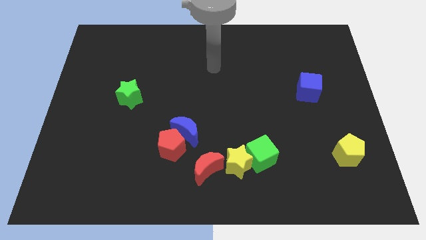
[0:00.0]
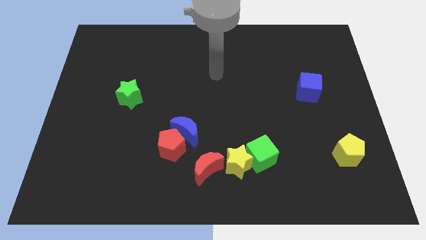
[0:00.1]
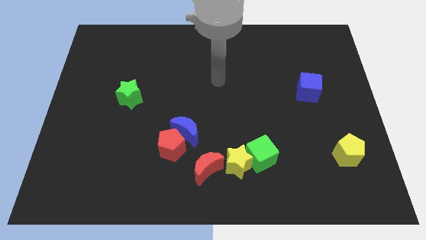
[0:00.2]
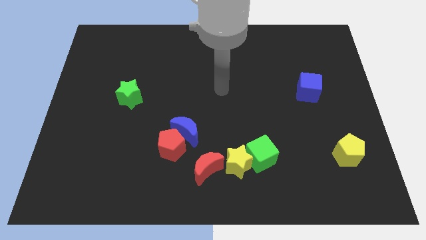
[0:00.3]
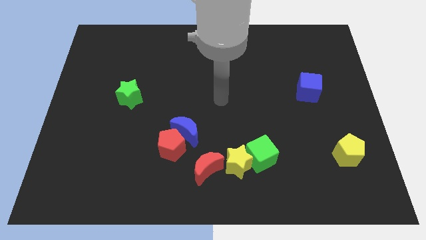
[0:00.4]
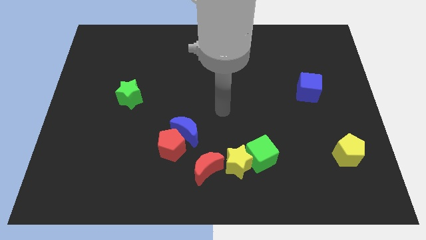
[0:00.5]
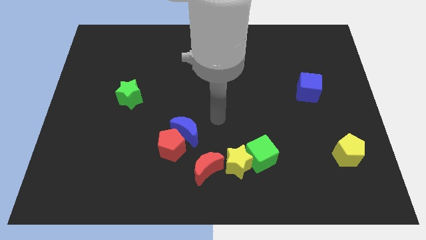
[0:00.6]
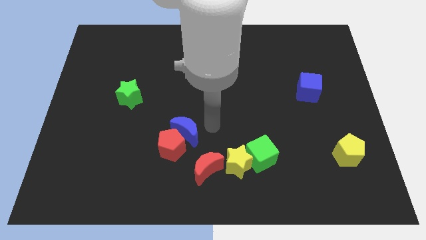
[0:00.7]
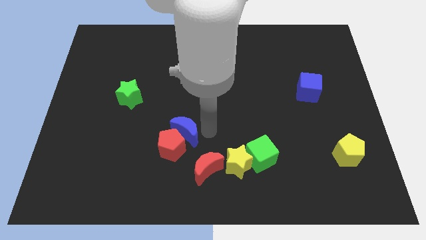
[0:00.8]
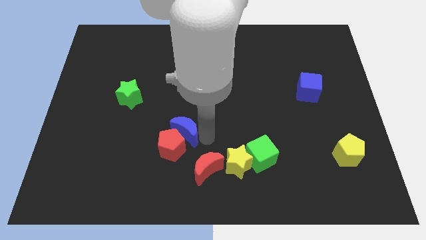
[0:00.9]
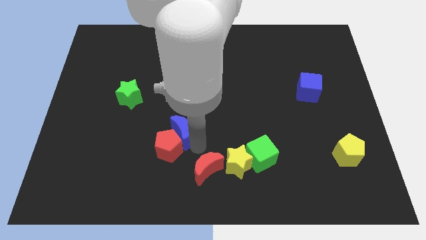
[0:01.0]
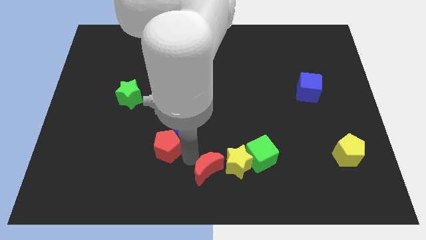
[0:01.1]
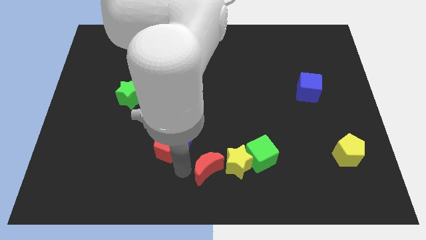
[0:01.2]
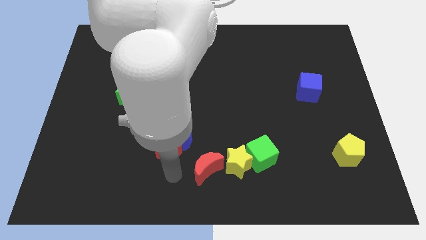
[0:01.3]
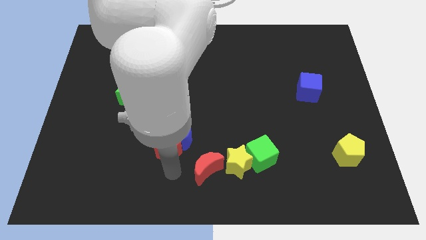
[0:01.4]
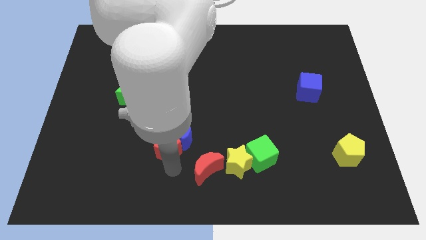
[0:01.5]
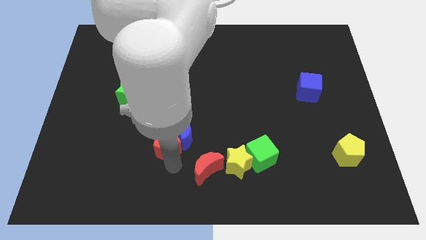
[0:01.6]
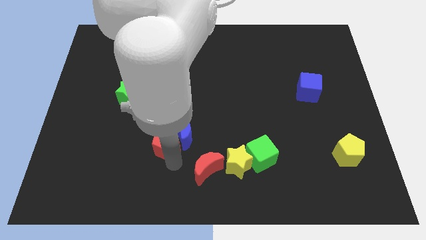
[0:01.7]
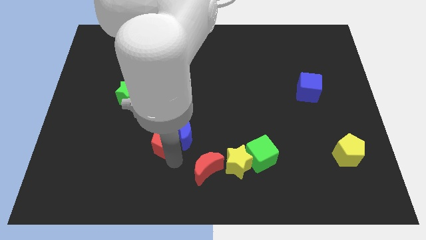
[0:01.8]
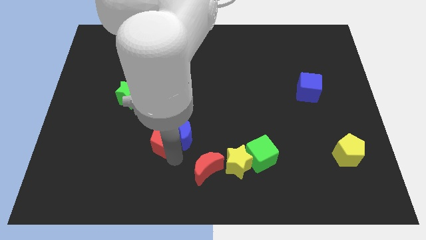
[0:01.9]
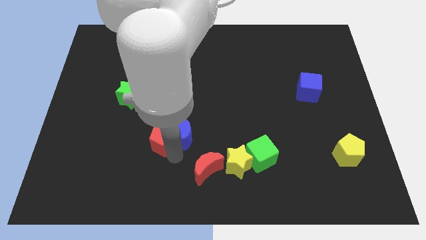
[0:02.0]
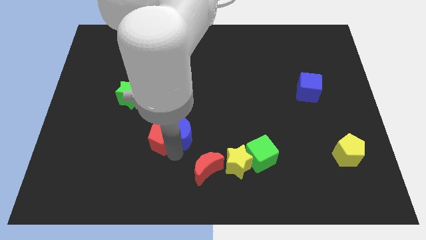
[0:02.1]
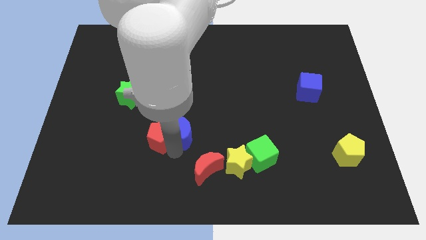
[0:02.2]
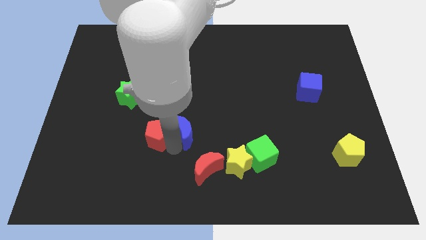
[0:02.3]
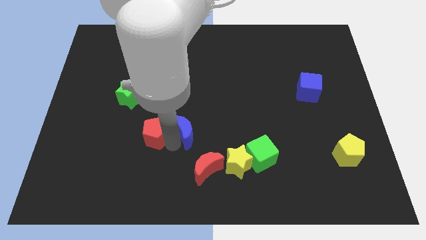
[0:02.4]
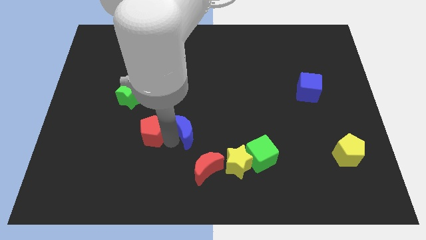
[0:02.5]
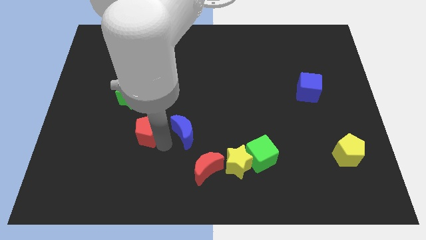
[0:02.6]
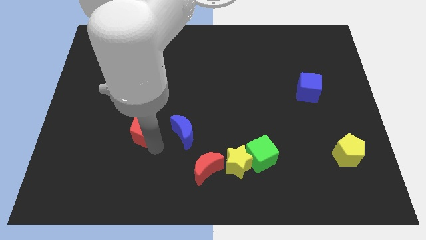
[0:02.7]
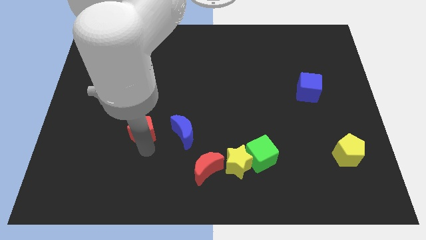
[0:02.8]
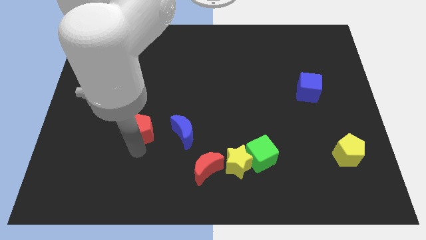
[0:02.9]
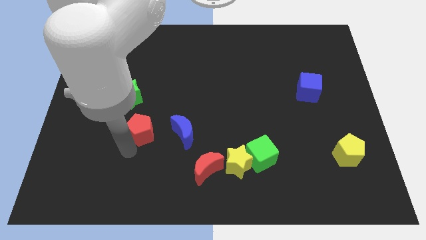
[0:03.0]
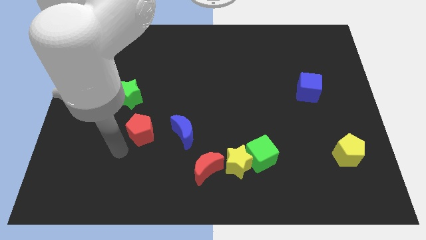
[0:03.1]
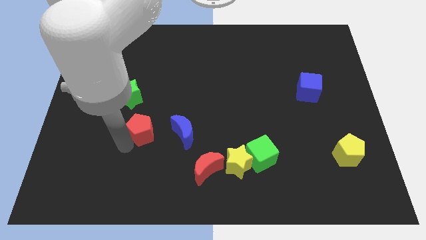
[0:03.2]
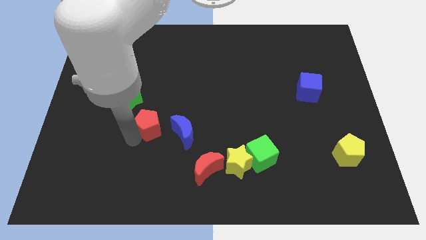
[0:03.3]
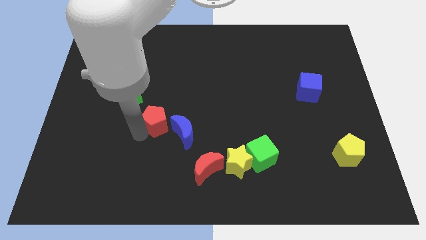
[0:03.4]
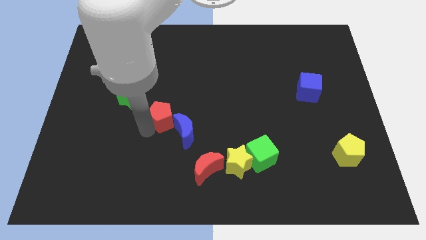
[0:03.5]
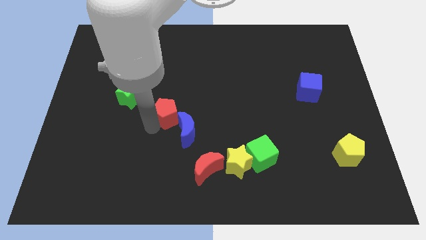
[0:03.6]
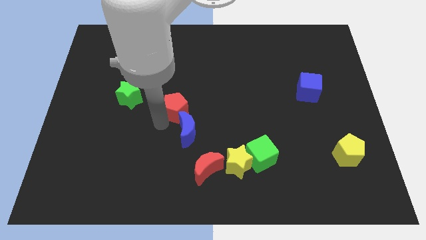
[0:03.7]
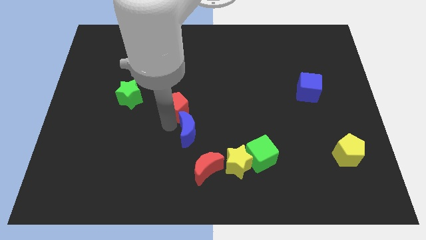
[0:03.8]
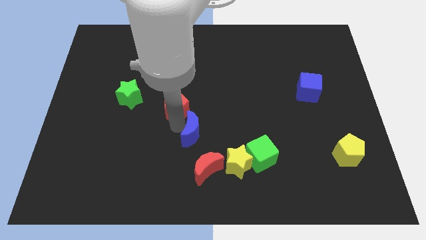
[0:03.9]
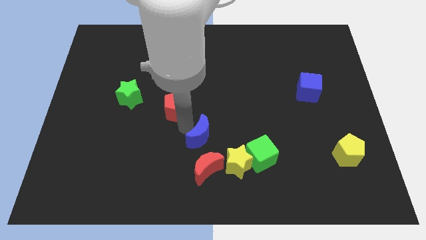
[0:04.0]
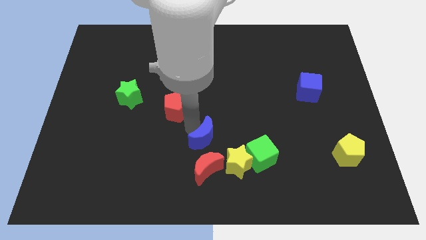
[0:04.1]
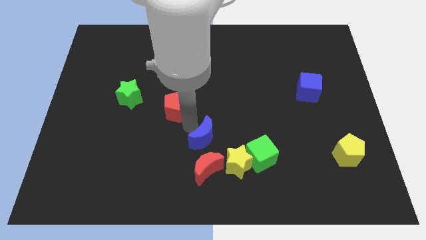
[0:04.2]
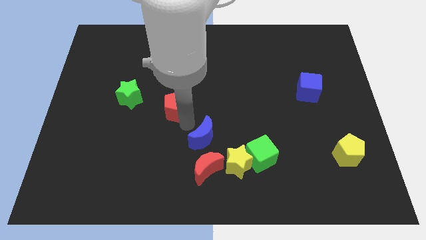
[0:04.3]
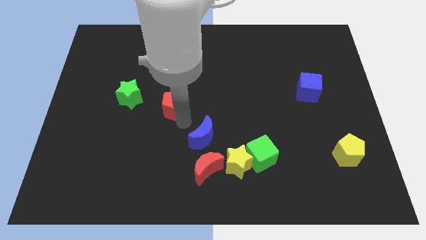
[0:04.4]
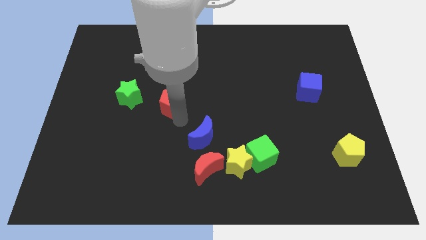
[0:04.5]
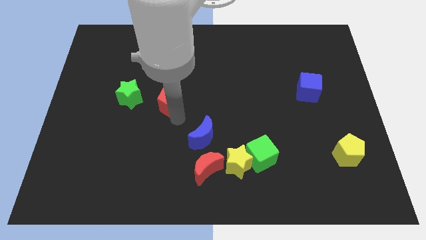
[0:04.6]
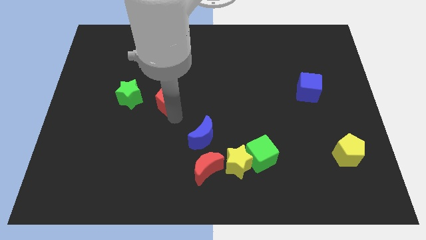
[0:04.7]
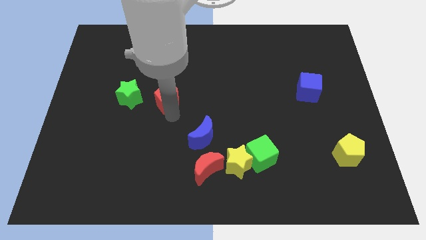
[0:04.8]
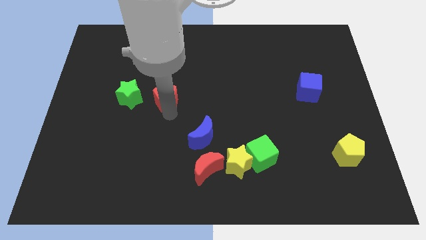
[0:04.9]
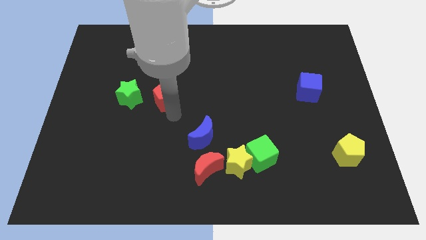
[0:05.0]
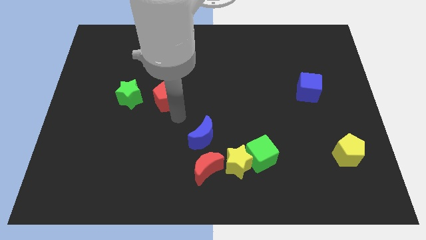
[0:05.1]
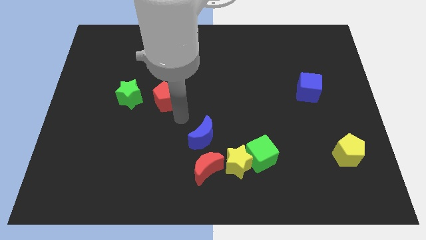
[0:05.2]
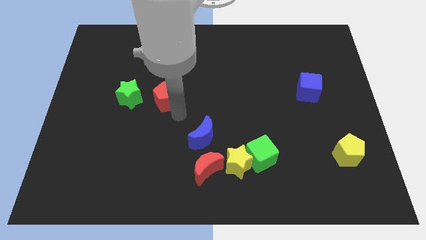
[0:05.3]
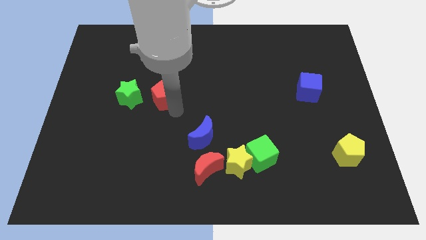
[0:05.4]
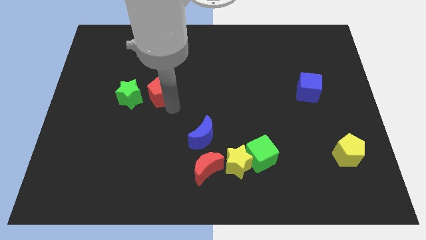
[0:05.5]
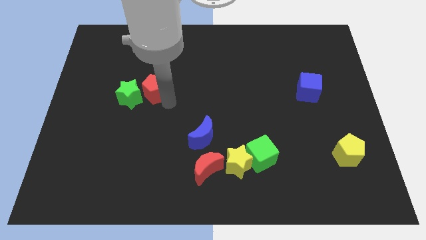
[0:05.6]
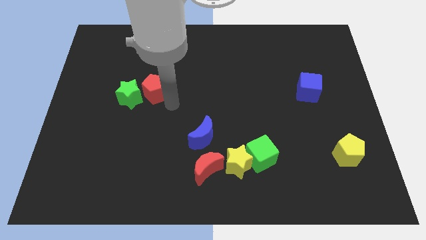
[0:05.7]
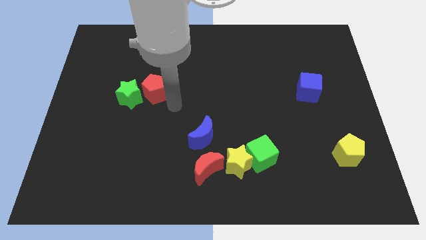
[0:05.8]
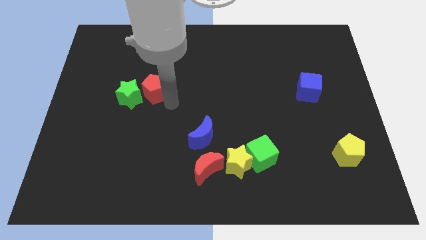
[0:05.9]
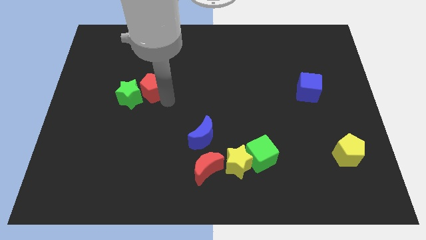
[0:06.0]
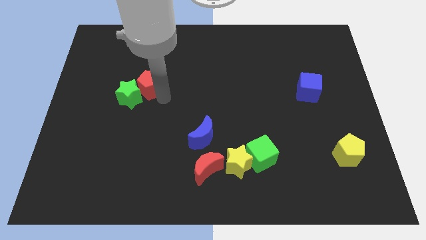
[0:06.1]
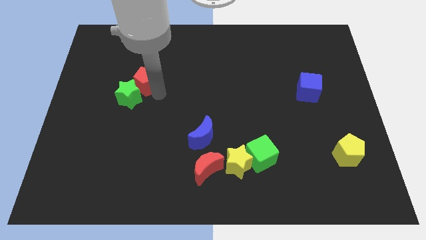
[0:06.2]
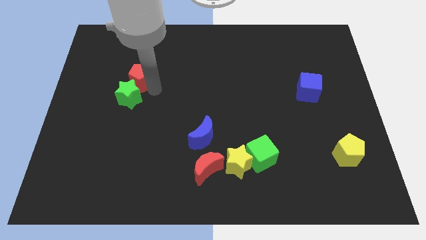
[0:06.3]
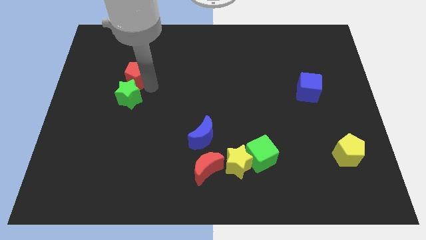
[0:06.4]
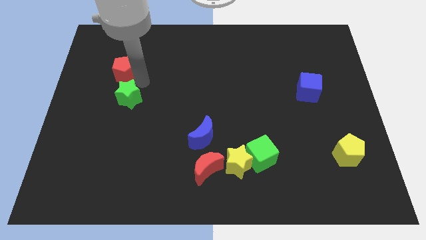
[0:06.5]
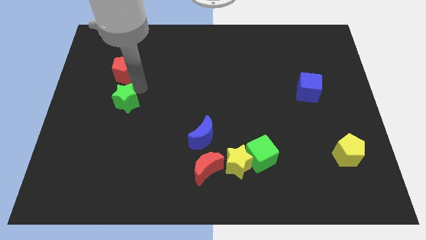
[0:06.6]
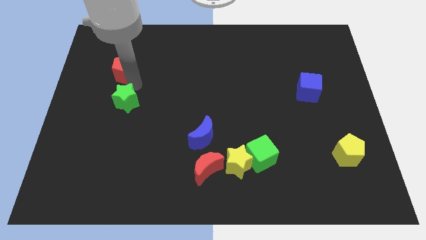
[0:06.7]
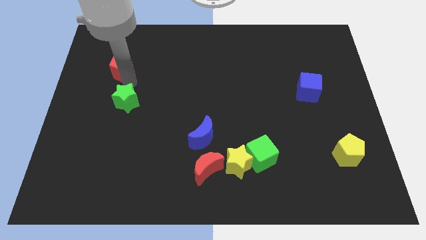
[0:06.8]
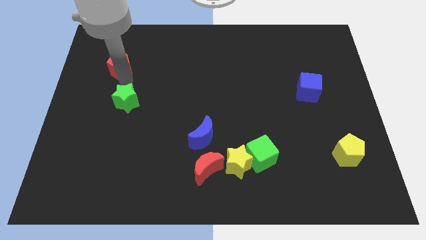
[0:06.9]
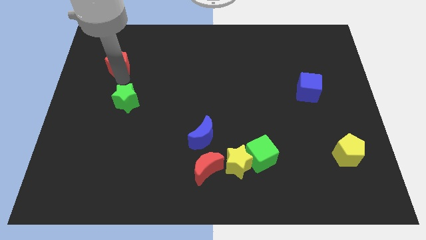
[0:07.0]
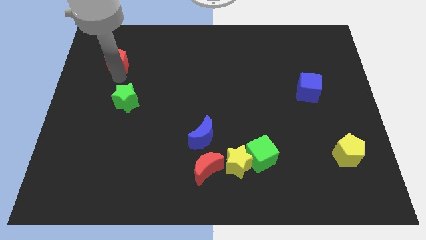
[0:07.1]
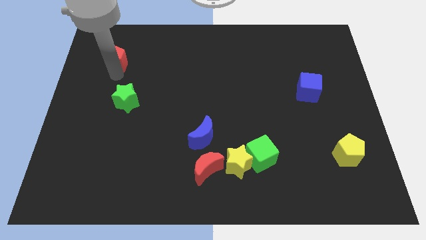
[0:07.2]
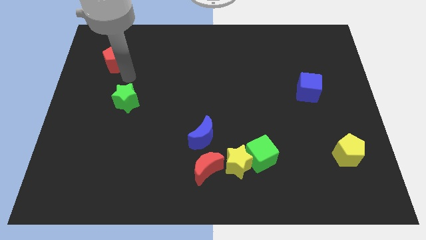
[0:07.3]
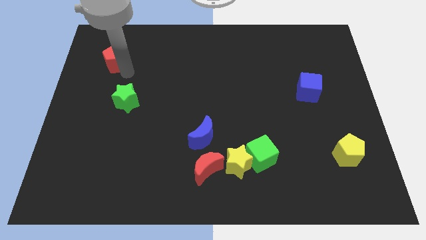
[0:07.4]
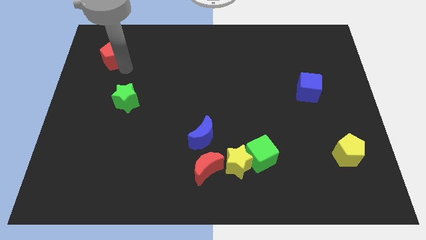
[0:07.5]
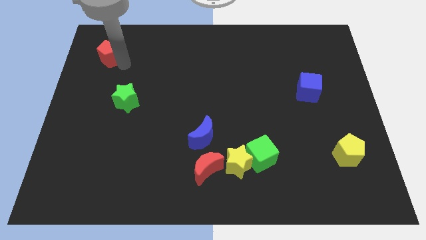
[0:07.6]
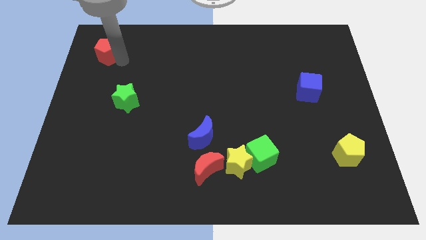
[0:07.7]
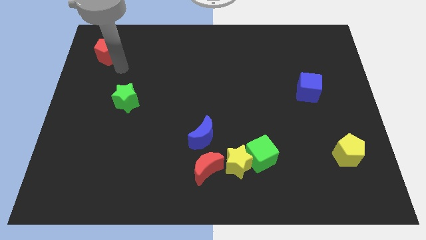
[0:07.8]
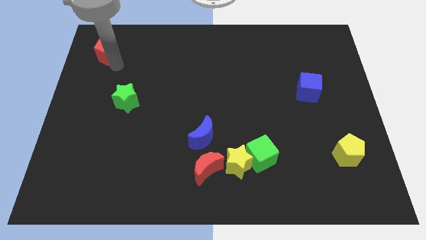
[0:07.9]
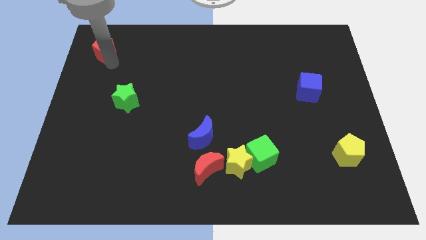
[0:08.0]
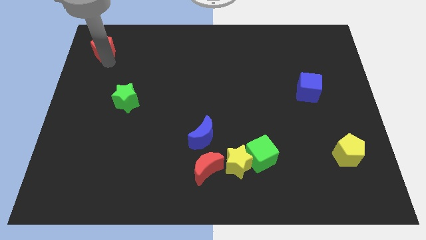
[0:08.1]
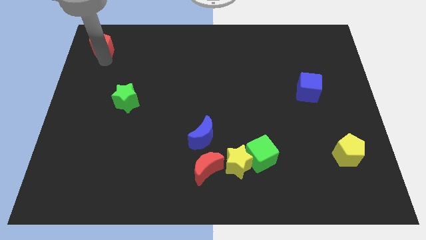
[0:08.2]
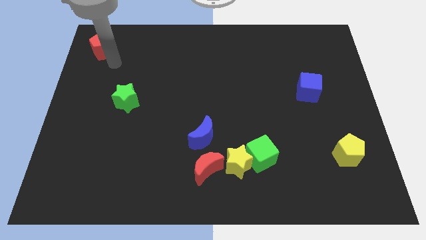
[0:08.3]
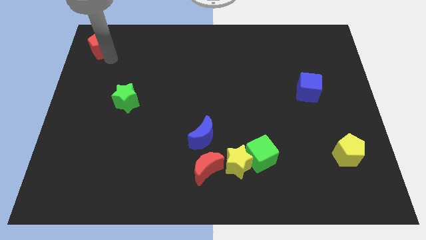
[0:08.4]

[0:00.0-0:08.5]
put the red pentagon to the top left of the board
